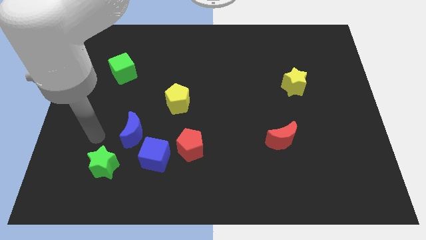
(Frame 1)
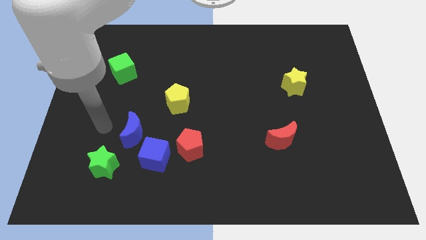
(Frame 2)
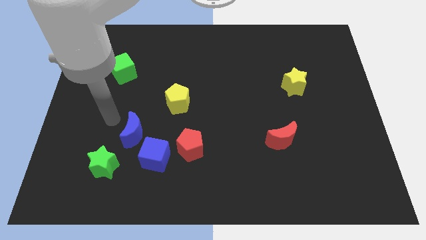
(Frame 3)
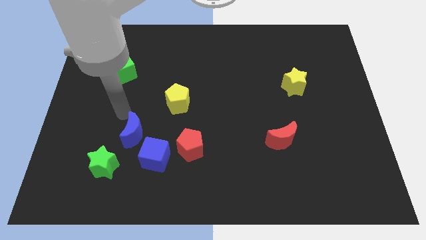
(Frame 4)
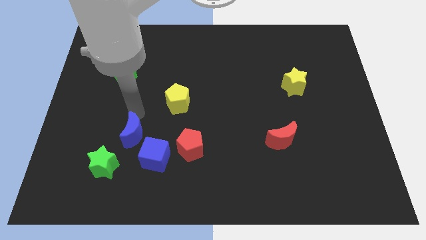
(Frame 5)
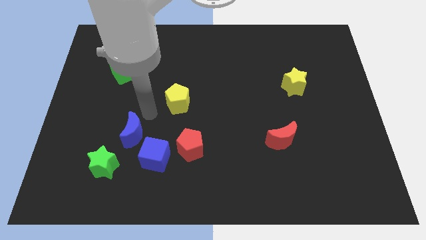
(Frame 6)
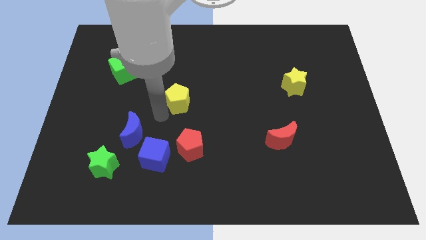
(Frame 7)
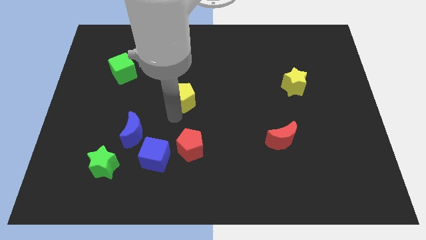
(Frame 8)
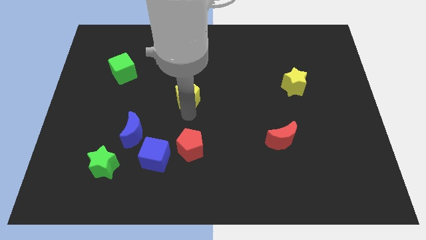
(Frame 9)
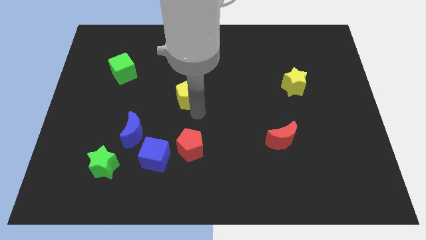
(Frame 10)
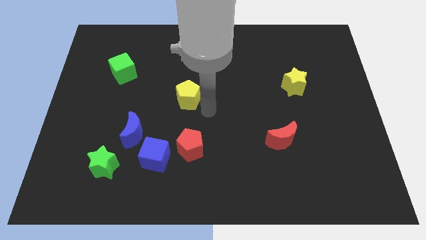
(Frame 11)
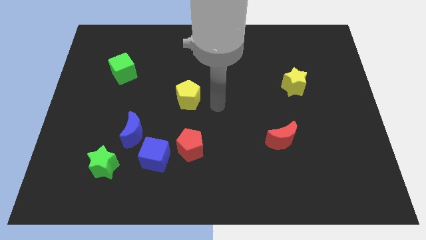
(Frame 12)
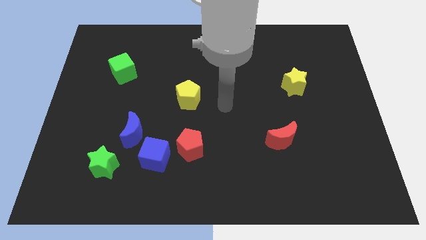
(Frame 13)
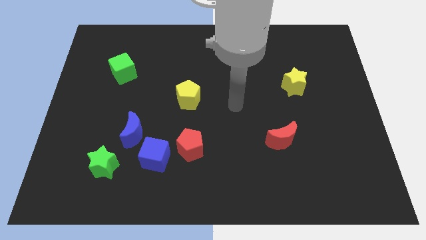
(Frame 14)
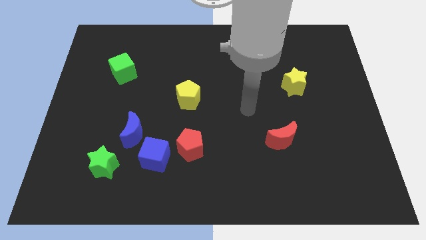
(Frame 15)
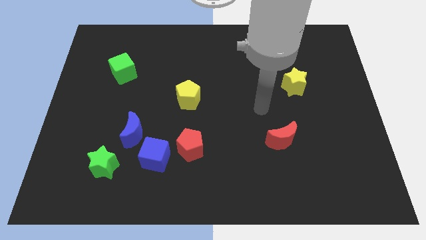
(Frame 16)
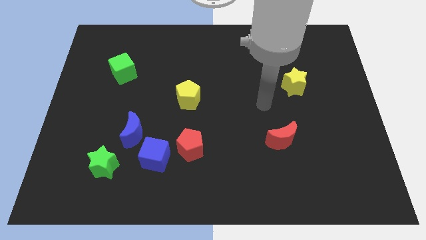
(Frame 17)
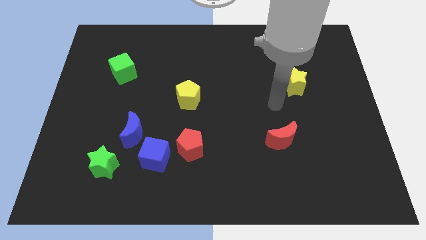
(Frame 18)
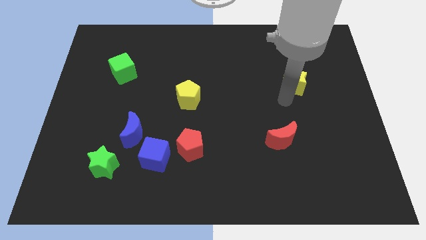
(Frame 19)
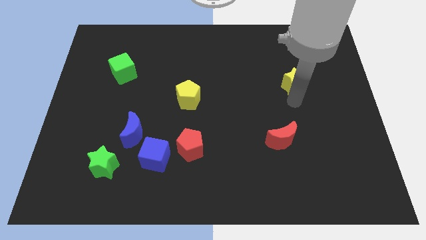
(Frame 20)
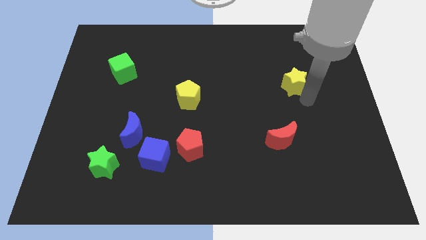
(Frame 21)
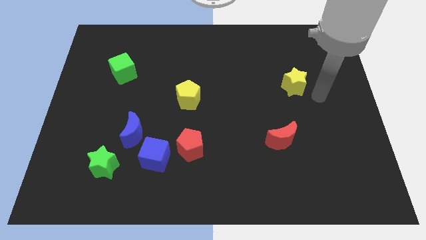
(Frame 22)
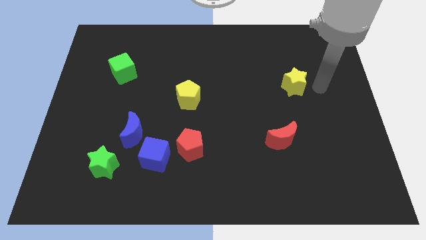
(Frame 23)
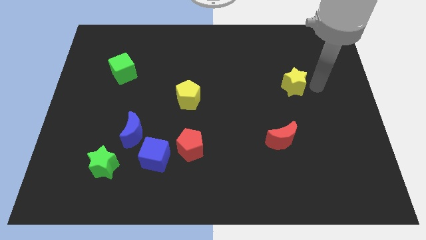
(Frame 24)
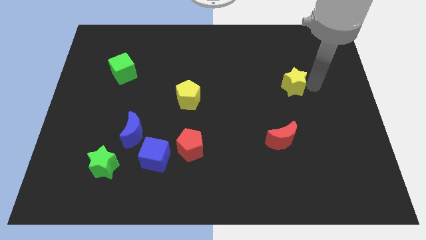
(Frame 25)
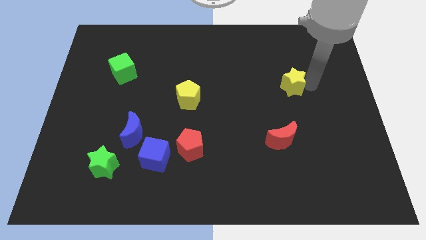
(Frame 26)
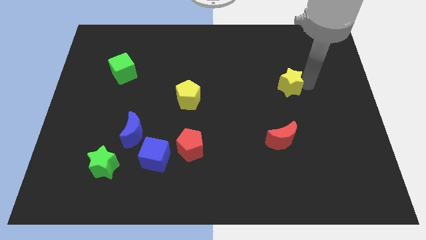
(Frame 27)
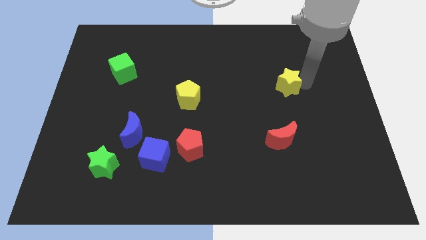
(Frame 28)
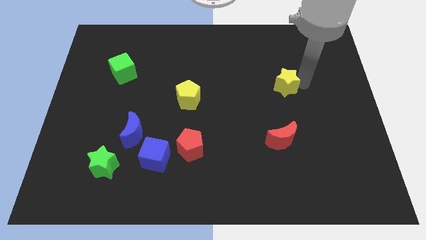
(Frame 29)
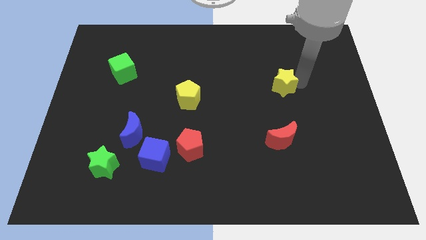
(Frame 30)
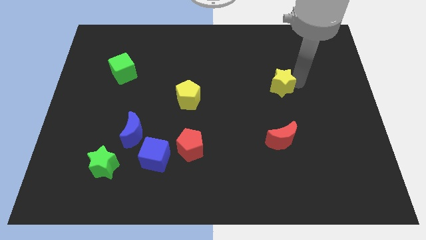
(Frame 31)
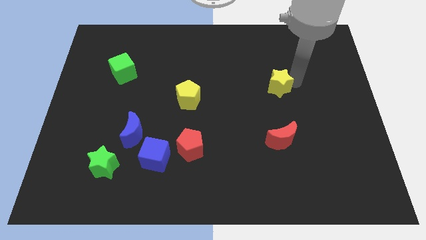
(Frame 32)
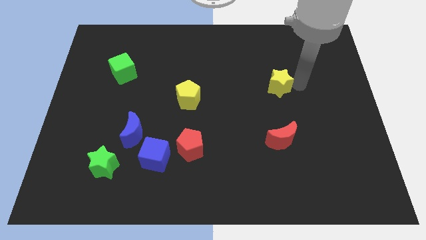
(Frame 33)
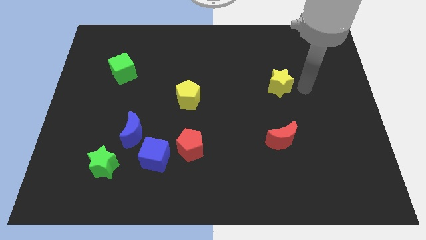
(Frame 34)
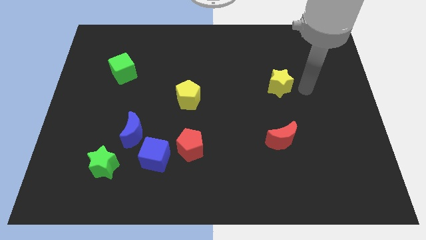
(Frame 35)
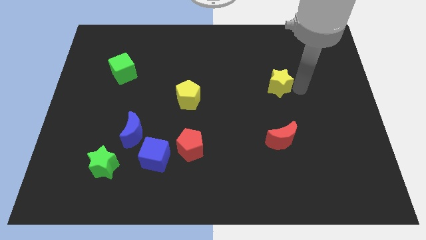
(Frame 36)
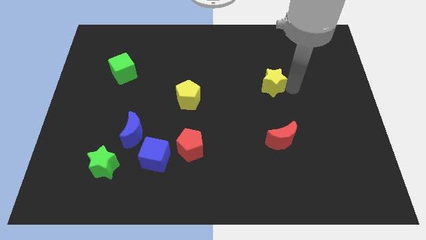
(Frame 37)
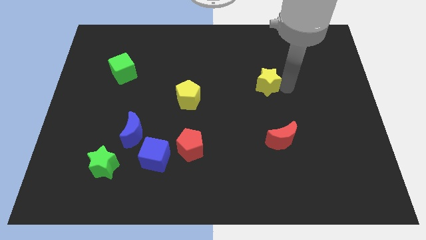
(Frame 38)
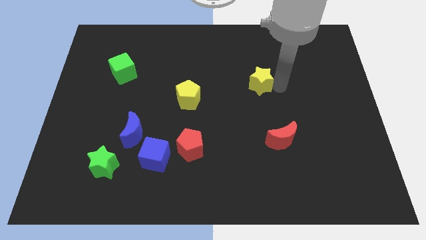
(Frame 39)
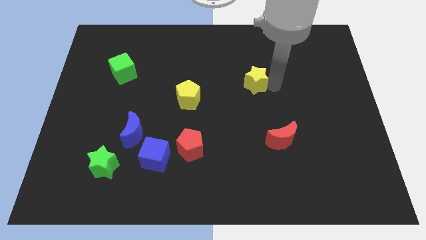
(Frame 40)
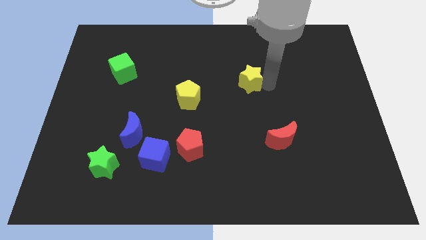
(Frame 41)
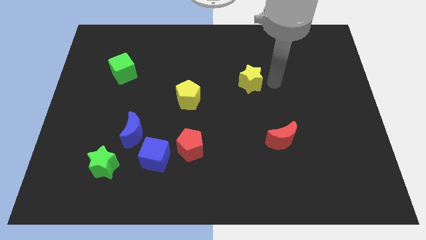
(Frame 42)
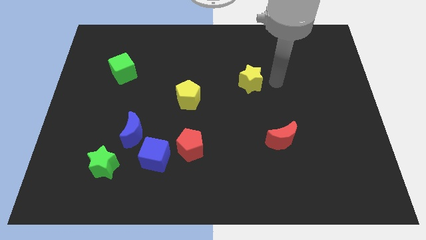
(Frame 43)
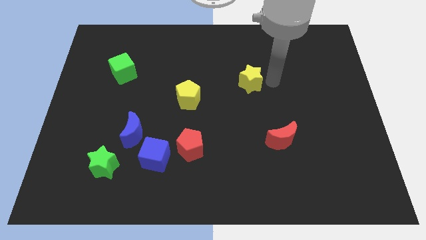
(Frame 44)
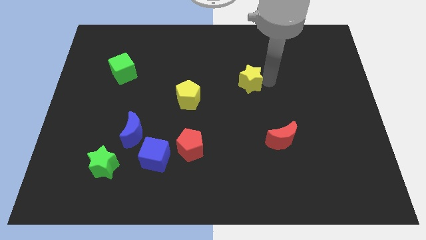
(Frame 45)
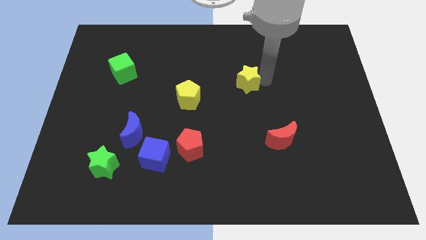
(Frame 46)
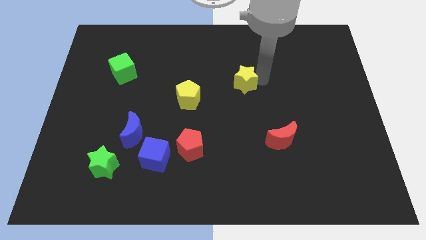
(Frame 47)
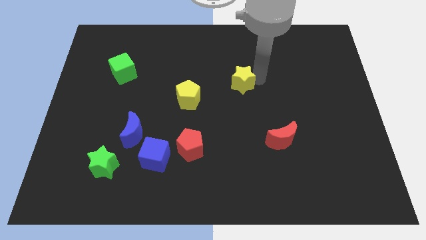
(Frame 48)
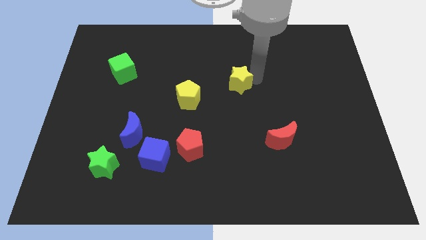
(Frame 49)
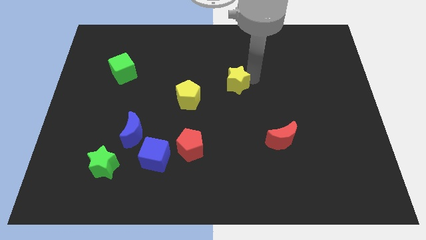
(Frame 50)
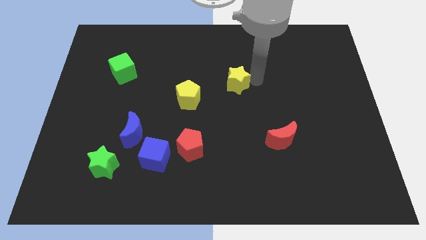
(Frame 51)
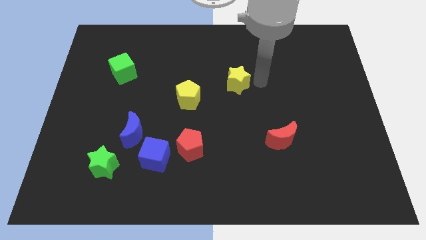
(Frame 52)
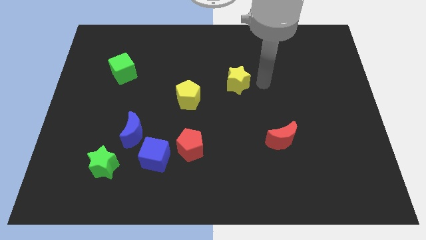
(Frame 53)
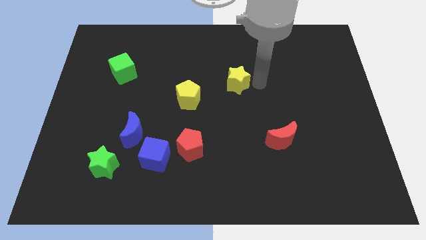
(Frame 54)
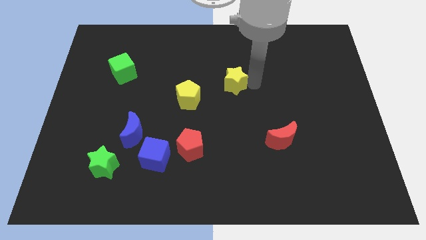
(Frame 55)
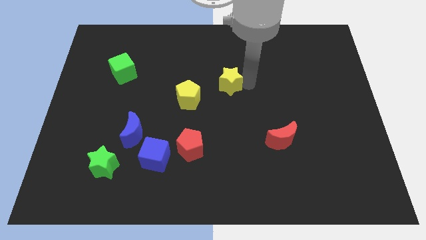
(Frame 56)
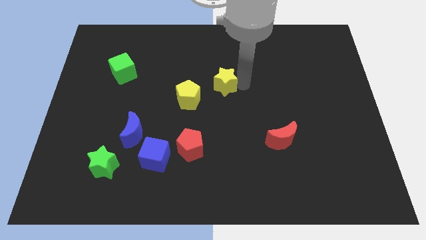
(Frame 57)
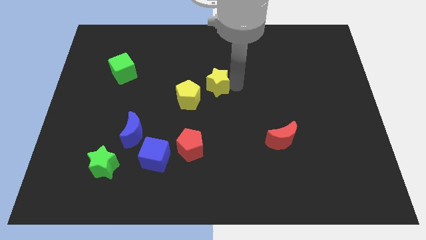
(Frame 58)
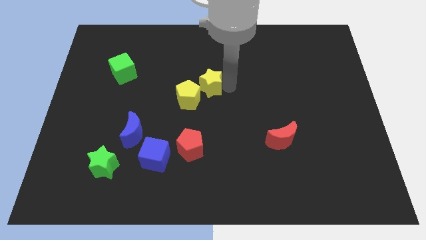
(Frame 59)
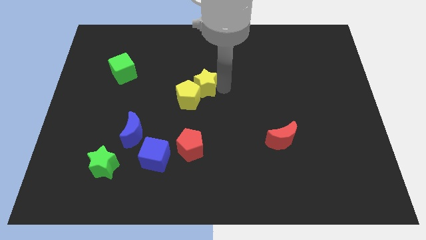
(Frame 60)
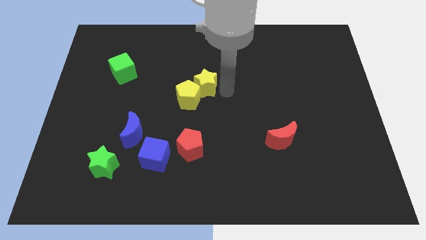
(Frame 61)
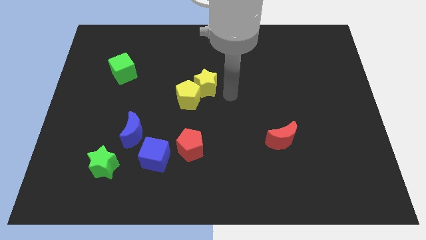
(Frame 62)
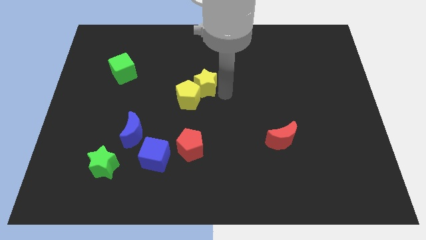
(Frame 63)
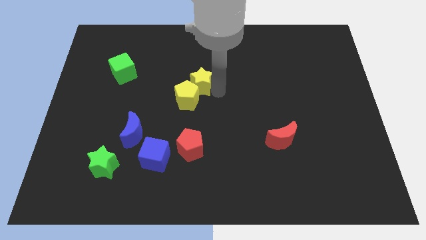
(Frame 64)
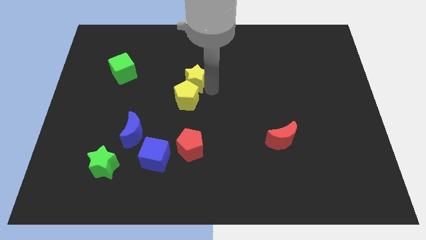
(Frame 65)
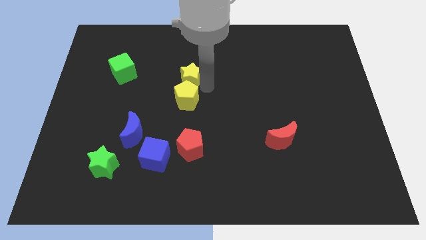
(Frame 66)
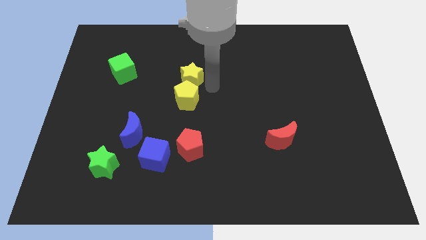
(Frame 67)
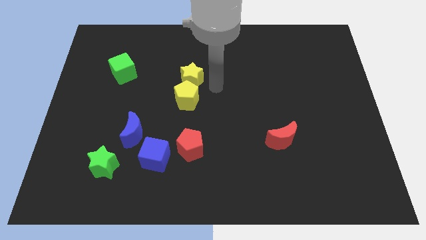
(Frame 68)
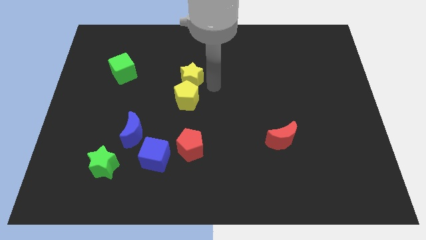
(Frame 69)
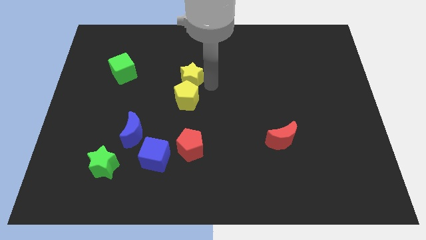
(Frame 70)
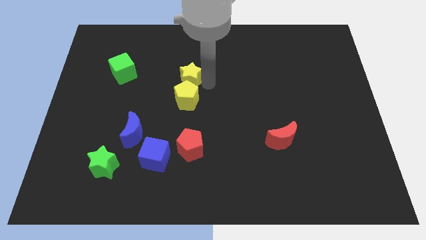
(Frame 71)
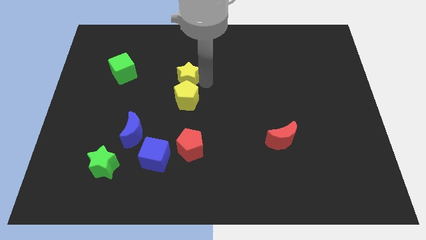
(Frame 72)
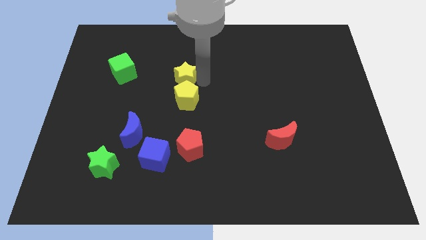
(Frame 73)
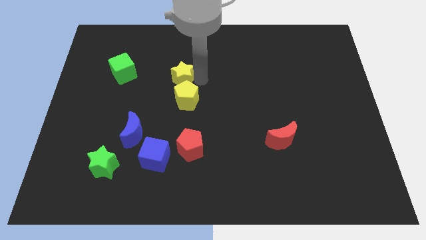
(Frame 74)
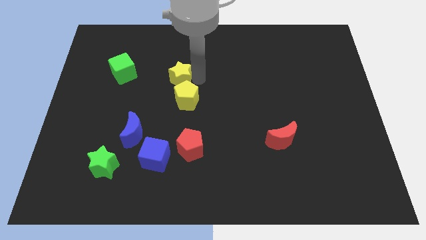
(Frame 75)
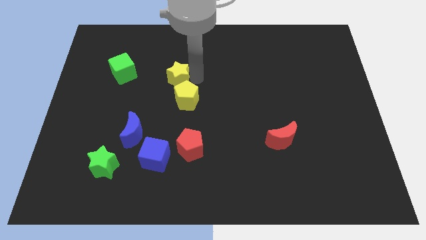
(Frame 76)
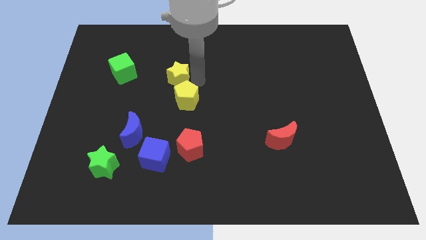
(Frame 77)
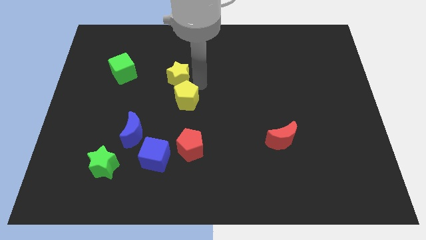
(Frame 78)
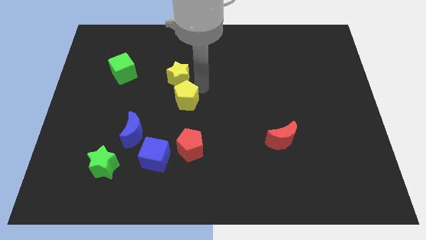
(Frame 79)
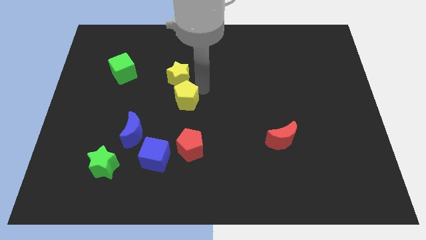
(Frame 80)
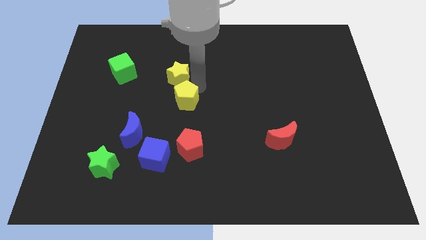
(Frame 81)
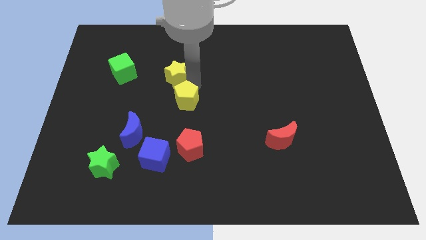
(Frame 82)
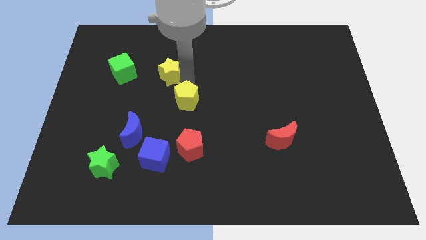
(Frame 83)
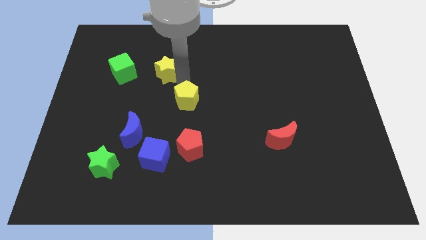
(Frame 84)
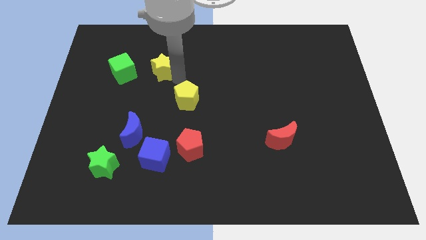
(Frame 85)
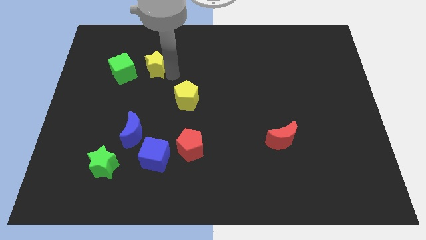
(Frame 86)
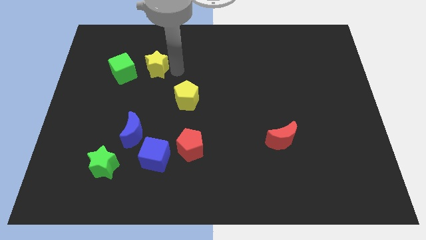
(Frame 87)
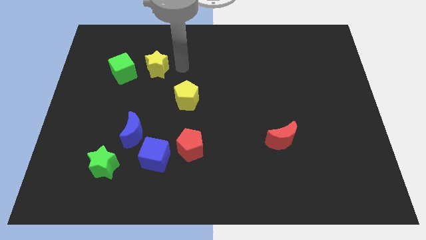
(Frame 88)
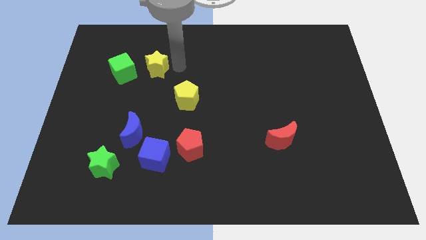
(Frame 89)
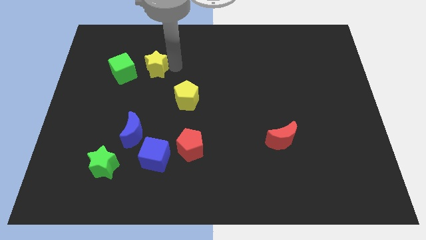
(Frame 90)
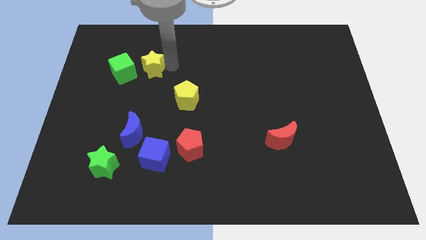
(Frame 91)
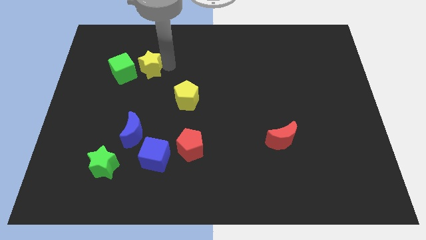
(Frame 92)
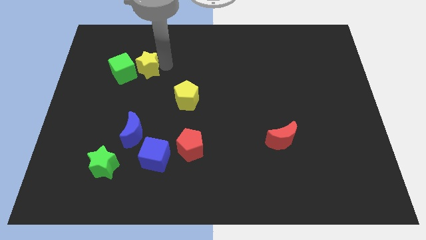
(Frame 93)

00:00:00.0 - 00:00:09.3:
slide the yellow star towards the green cube
